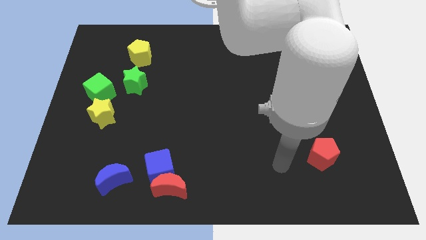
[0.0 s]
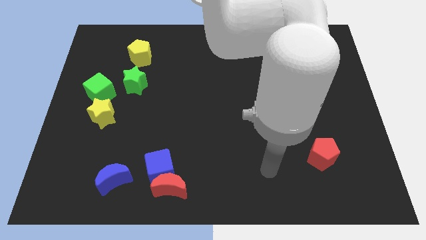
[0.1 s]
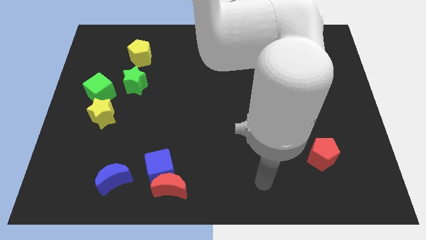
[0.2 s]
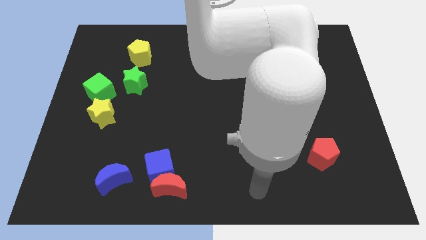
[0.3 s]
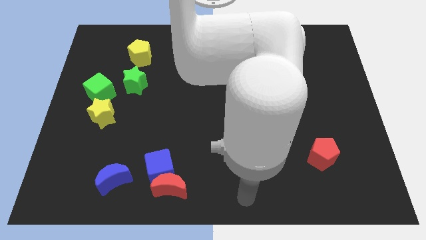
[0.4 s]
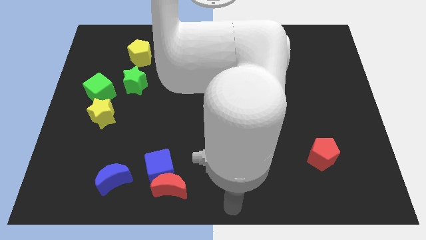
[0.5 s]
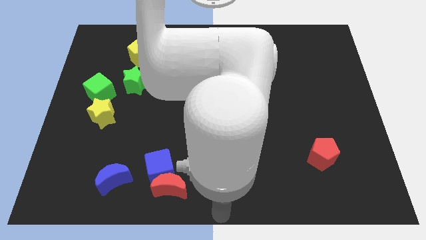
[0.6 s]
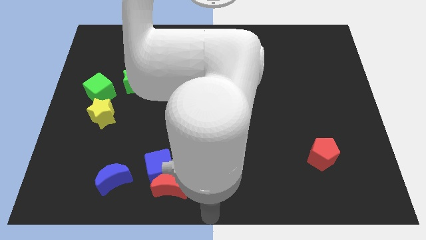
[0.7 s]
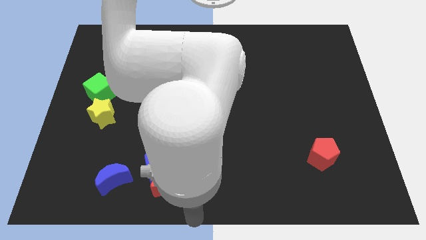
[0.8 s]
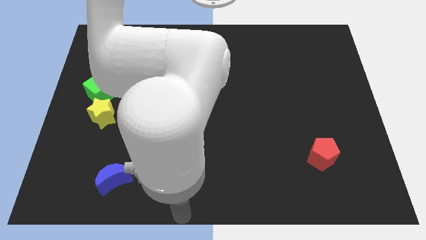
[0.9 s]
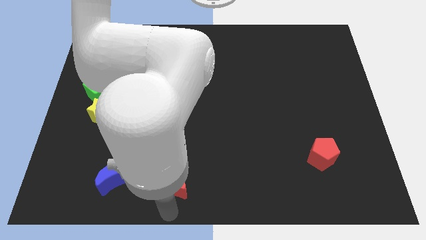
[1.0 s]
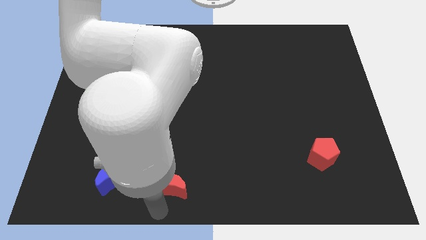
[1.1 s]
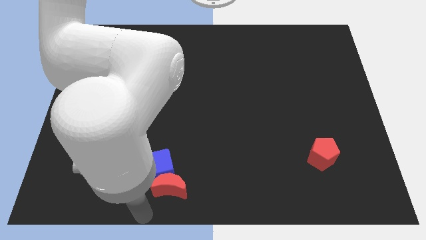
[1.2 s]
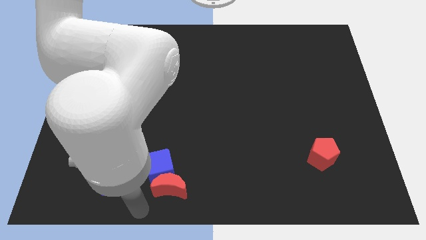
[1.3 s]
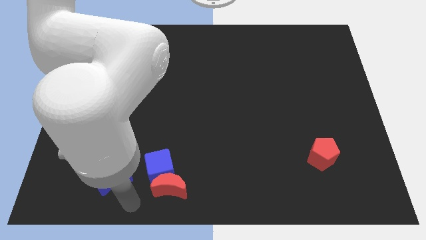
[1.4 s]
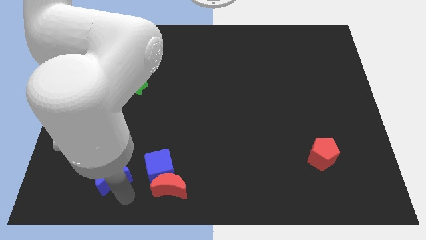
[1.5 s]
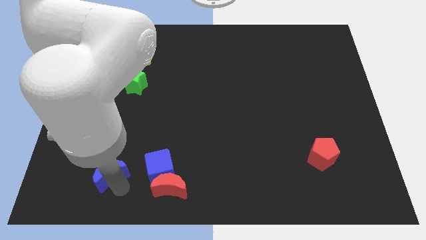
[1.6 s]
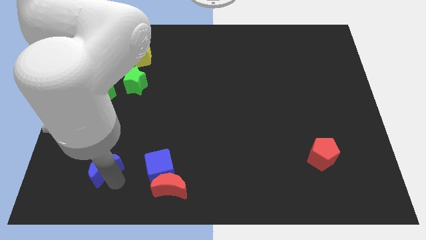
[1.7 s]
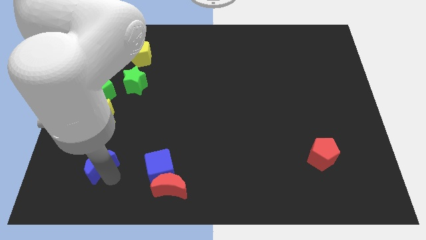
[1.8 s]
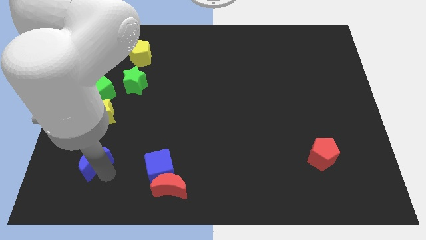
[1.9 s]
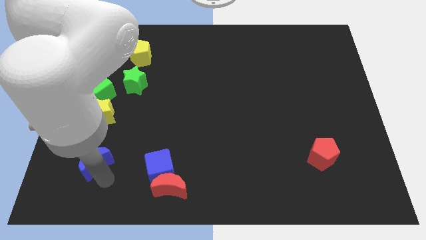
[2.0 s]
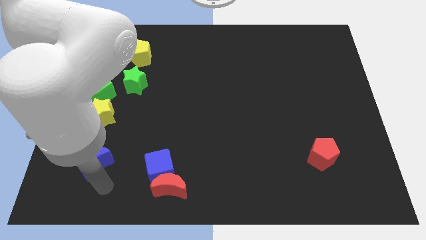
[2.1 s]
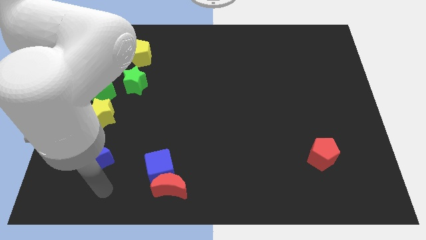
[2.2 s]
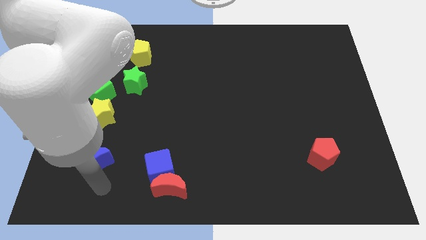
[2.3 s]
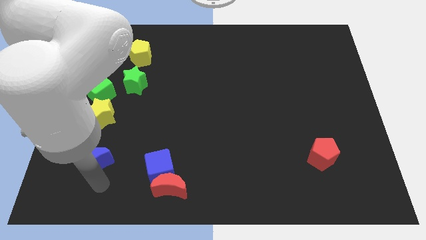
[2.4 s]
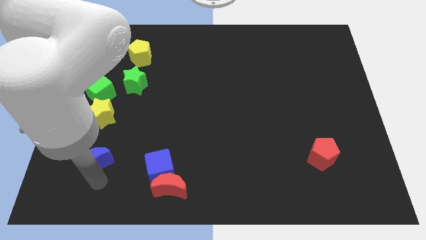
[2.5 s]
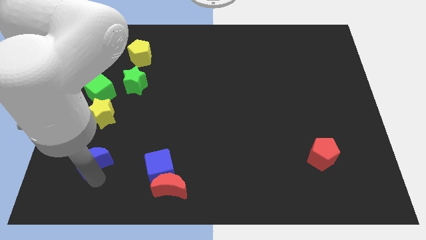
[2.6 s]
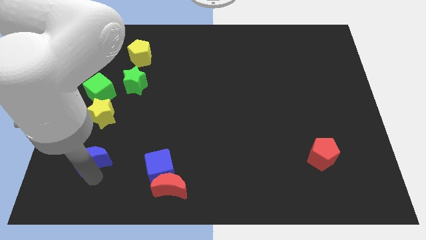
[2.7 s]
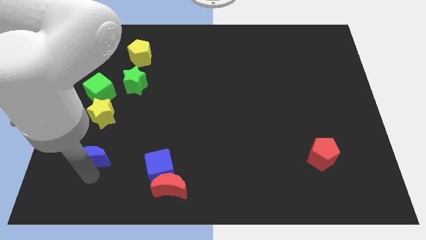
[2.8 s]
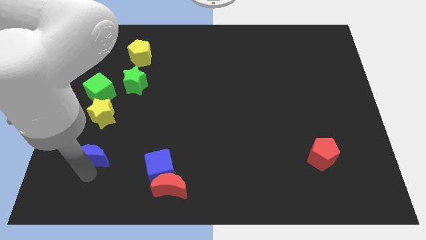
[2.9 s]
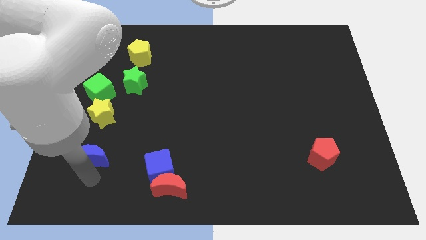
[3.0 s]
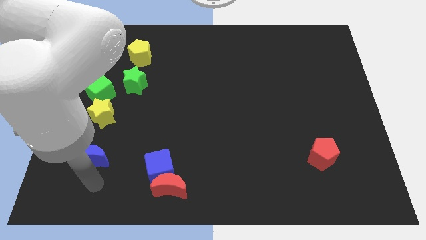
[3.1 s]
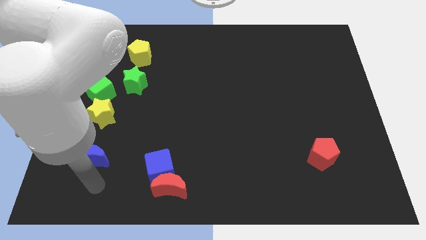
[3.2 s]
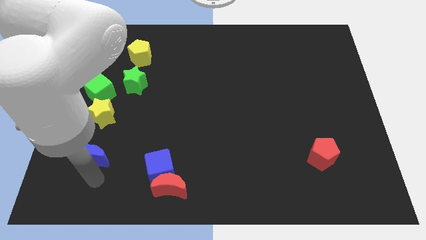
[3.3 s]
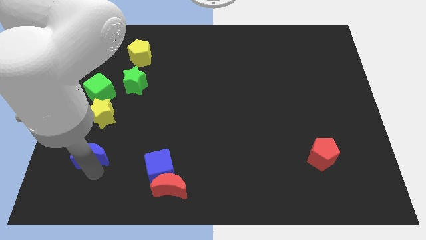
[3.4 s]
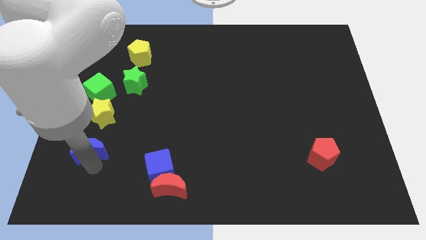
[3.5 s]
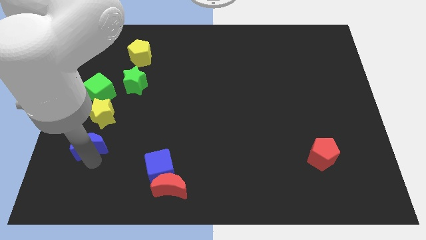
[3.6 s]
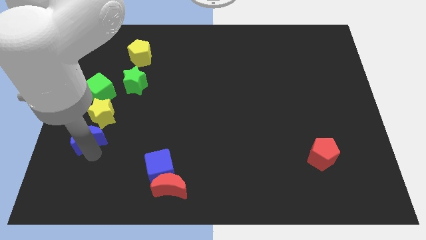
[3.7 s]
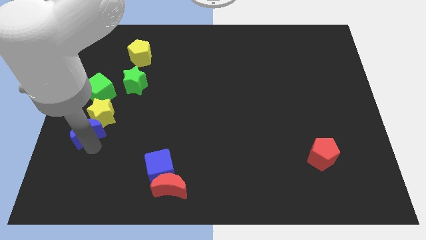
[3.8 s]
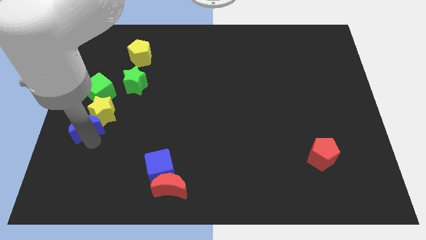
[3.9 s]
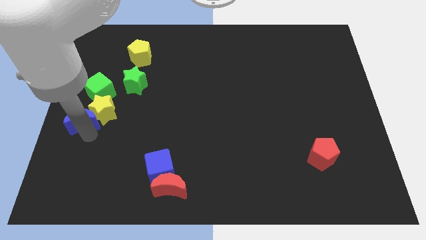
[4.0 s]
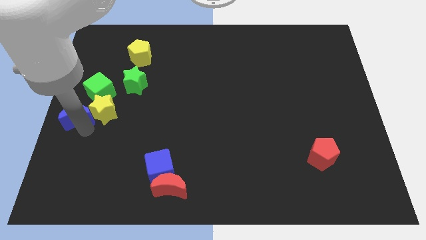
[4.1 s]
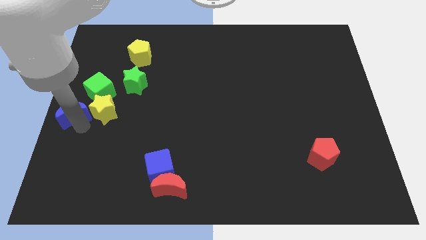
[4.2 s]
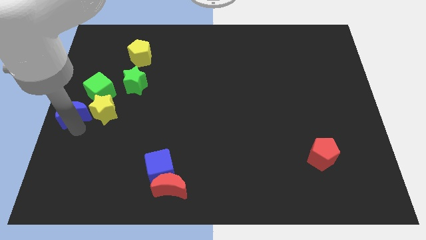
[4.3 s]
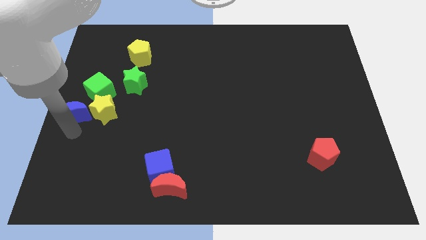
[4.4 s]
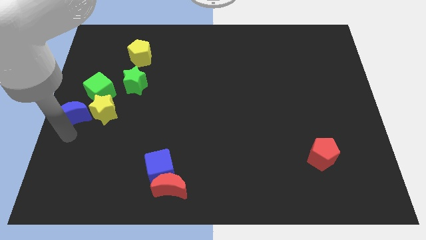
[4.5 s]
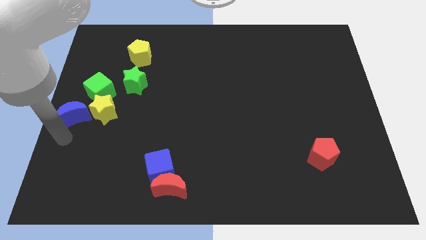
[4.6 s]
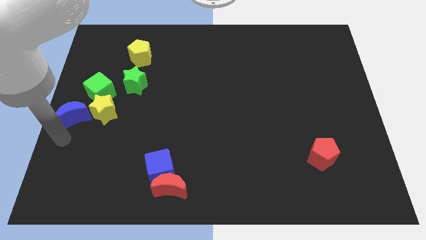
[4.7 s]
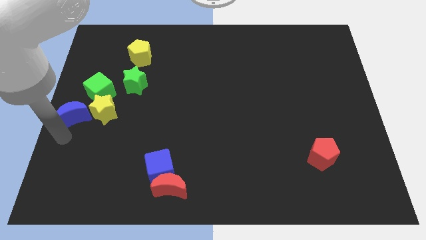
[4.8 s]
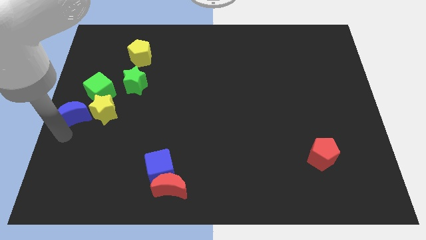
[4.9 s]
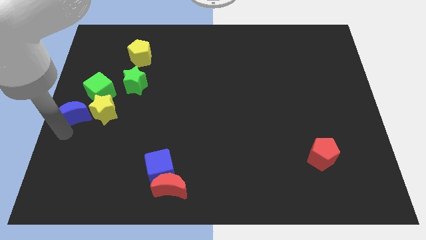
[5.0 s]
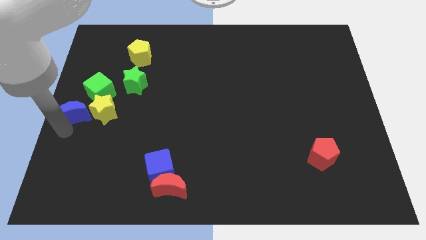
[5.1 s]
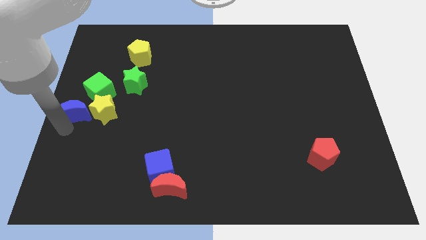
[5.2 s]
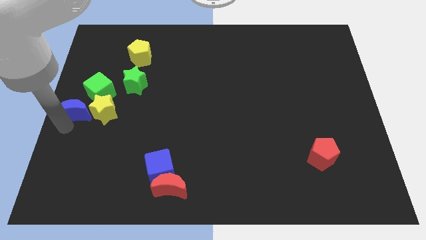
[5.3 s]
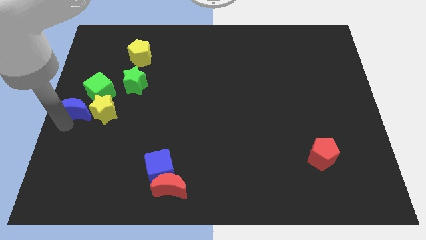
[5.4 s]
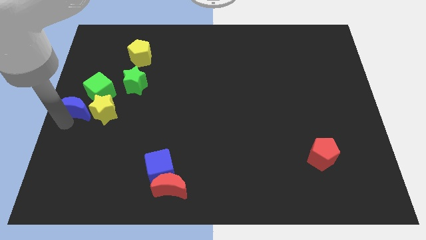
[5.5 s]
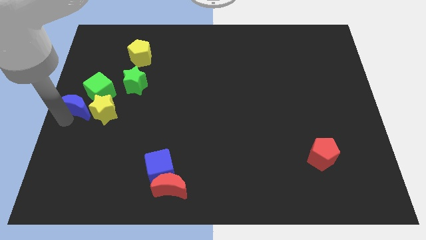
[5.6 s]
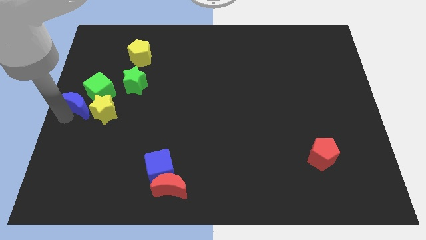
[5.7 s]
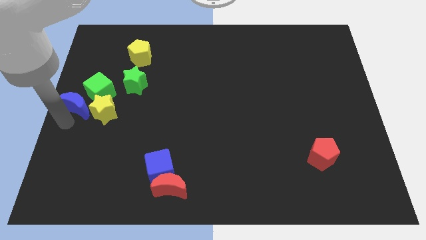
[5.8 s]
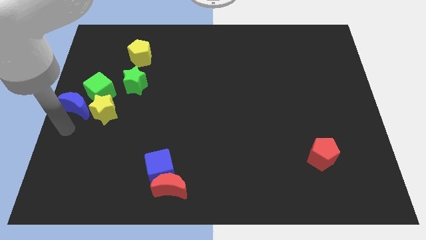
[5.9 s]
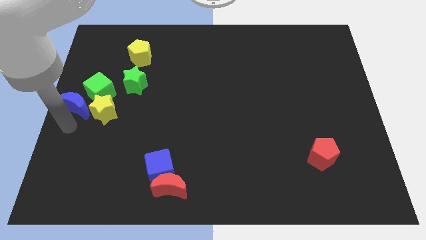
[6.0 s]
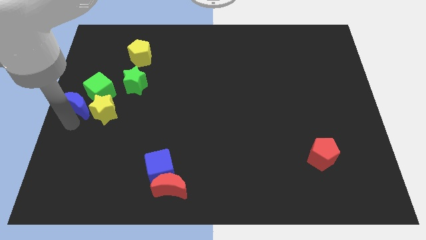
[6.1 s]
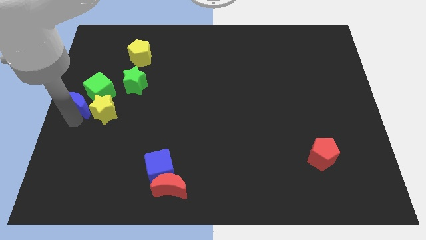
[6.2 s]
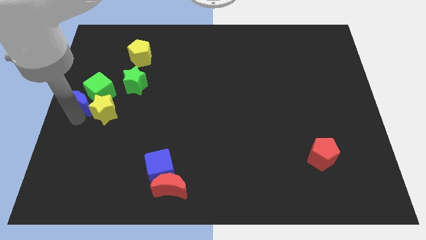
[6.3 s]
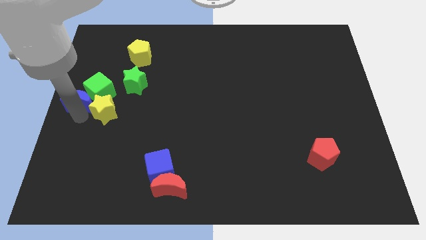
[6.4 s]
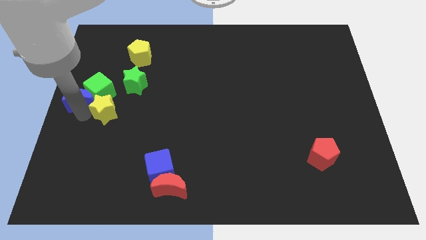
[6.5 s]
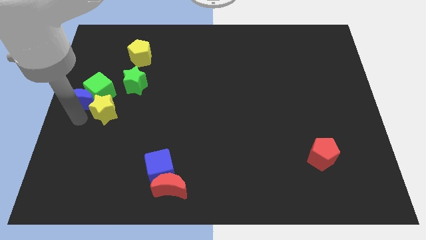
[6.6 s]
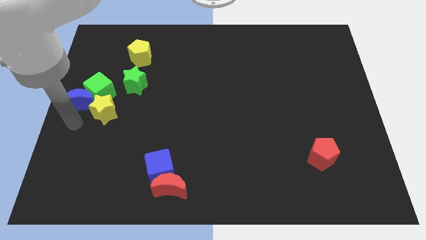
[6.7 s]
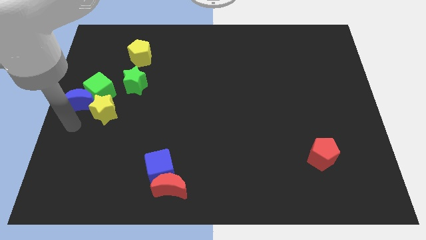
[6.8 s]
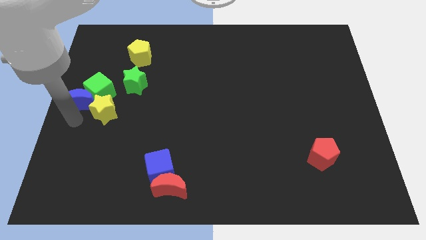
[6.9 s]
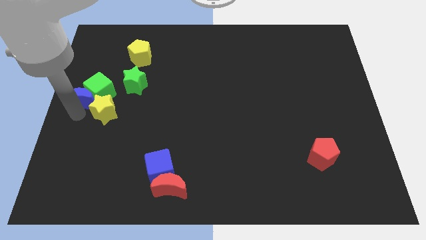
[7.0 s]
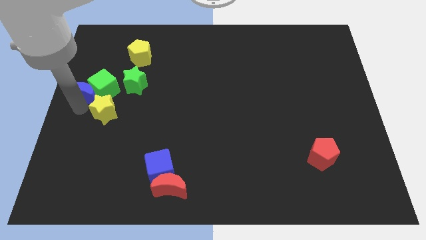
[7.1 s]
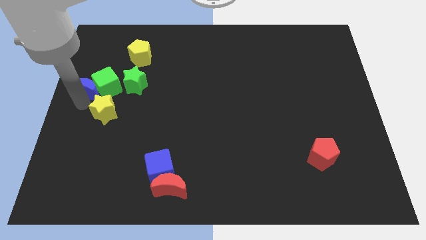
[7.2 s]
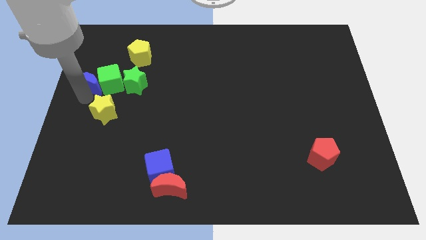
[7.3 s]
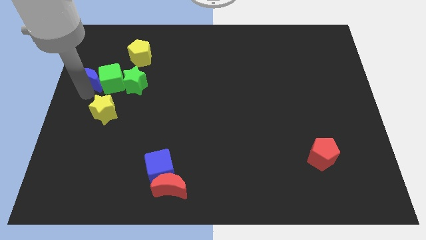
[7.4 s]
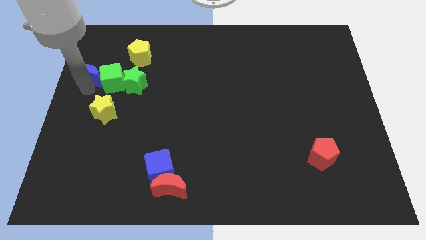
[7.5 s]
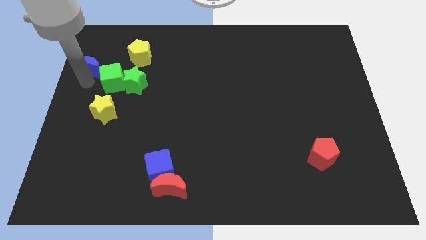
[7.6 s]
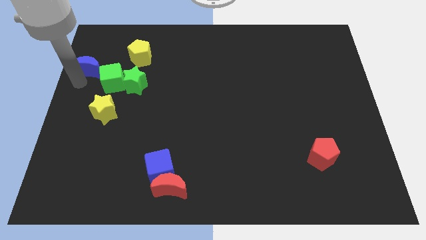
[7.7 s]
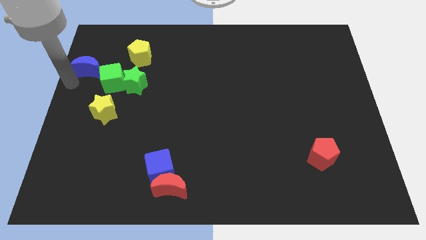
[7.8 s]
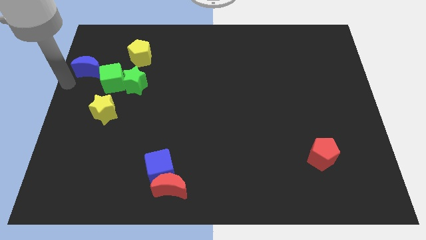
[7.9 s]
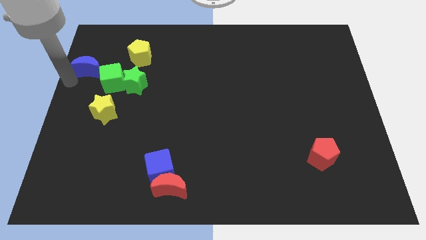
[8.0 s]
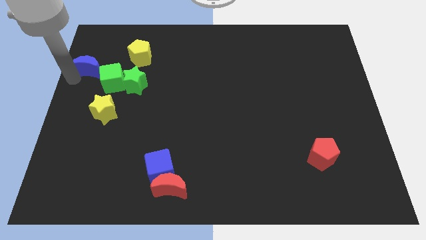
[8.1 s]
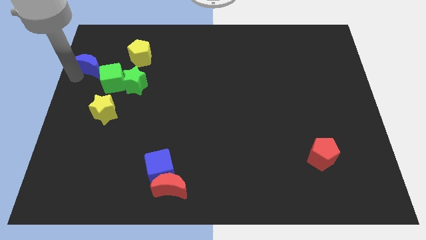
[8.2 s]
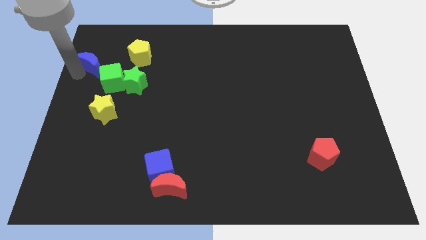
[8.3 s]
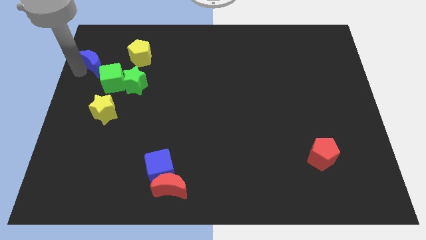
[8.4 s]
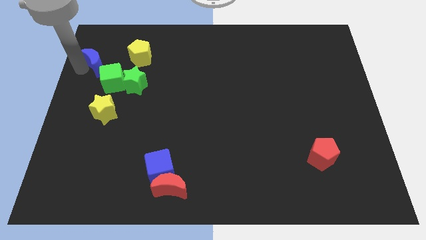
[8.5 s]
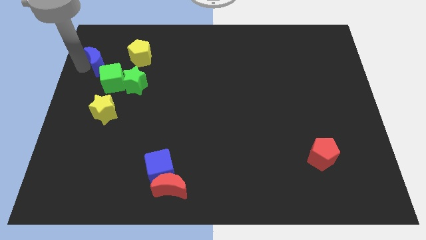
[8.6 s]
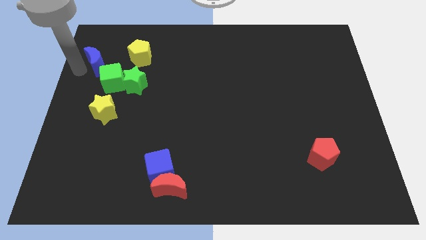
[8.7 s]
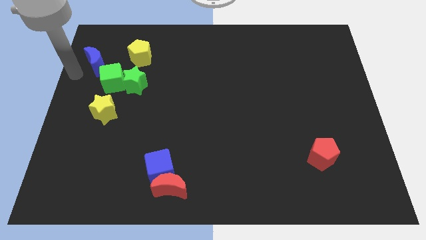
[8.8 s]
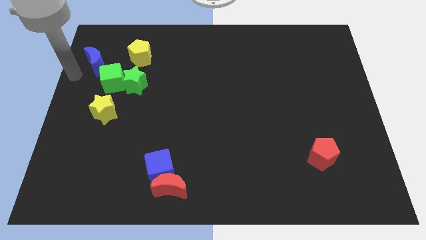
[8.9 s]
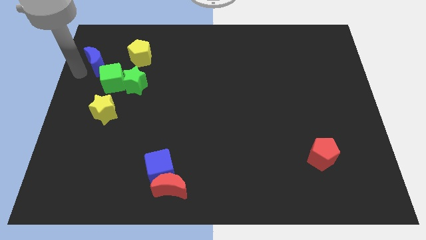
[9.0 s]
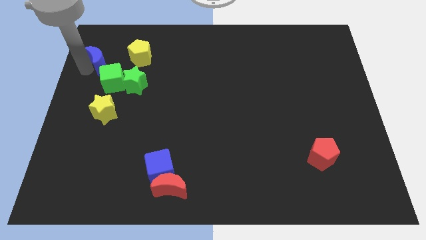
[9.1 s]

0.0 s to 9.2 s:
put the blue moon to the top of the green cube
